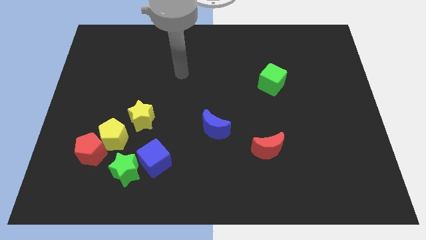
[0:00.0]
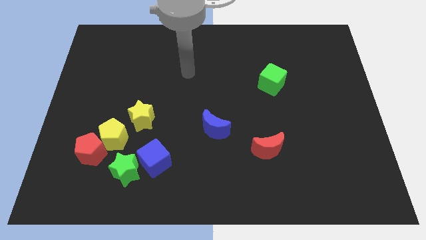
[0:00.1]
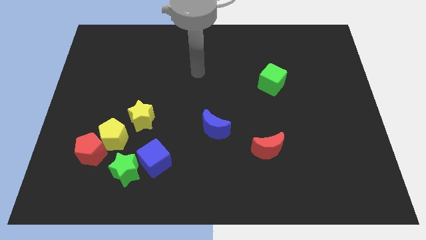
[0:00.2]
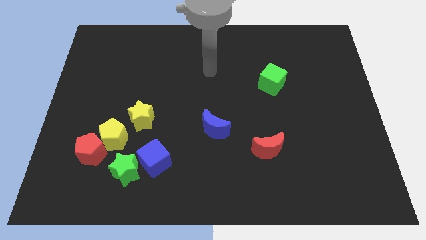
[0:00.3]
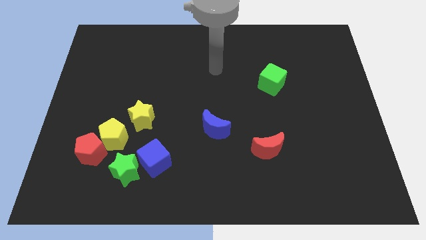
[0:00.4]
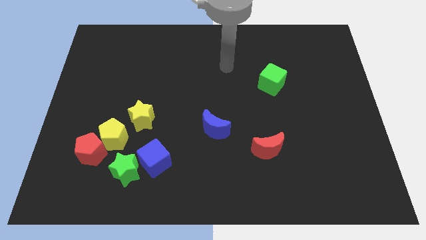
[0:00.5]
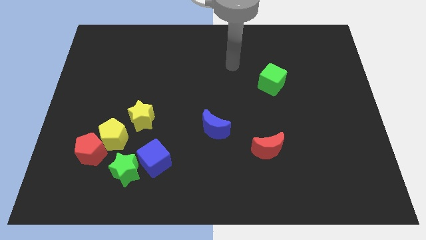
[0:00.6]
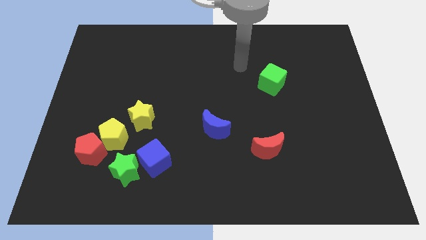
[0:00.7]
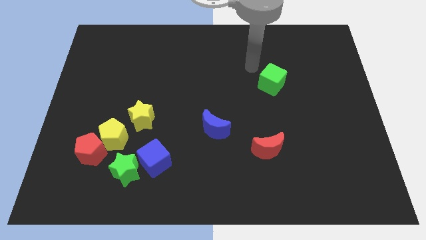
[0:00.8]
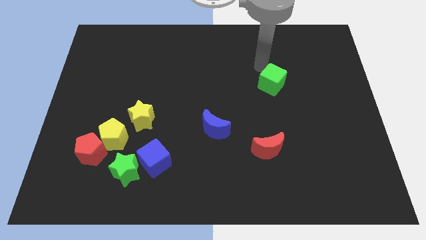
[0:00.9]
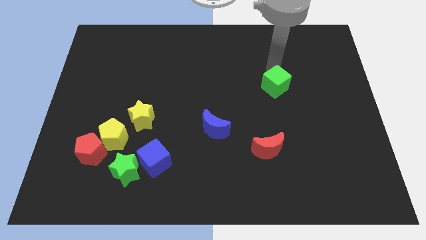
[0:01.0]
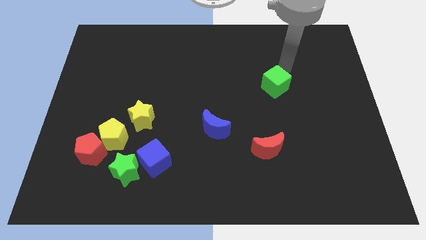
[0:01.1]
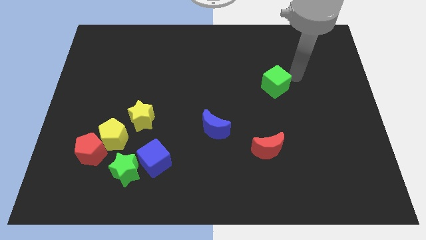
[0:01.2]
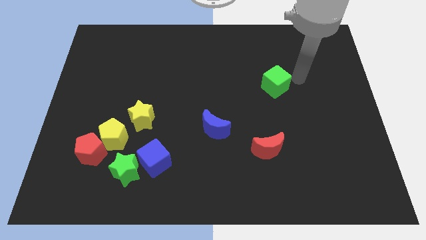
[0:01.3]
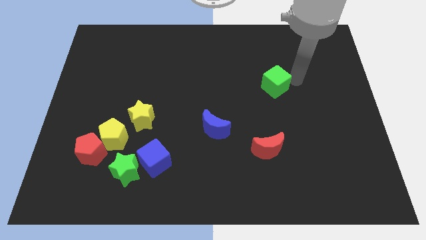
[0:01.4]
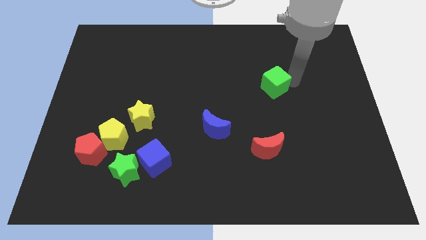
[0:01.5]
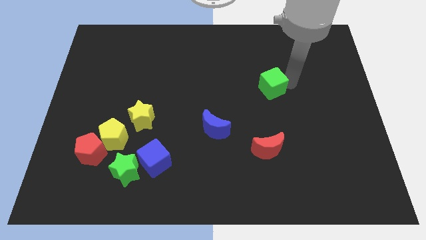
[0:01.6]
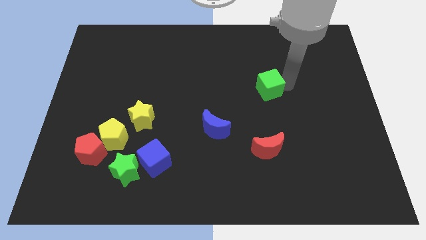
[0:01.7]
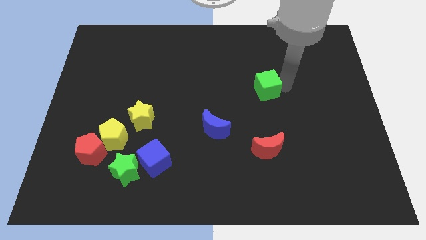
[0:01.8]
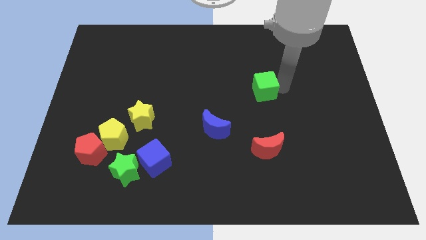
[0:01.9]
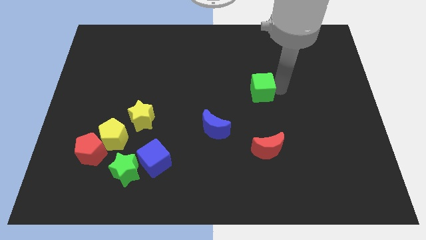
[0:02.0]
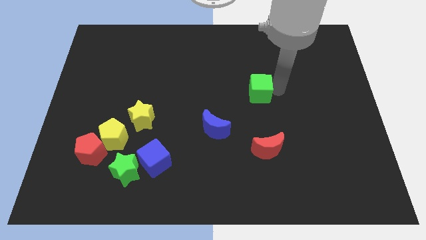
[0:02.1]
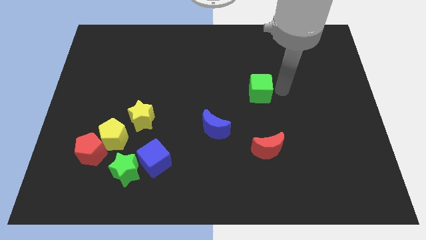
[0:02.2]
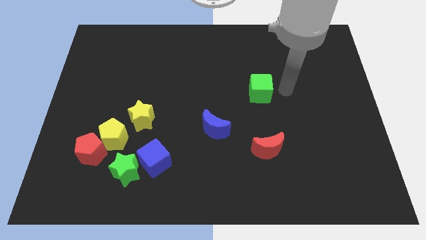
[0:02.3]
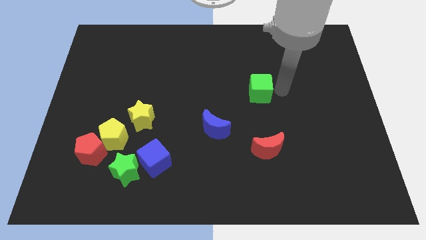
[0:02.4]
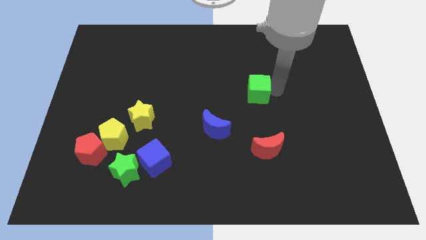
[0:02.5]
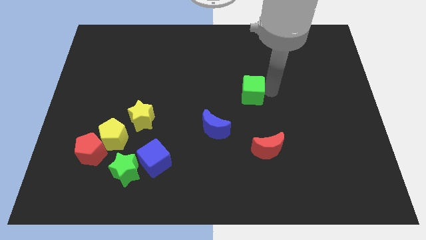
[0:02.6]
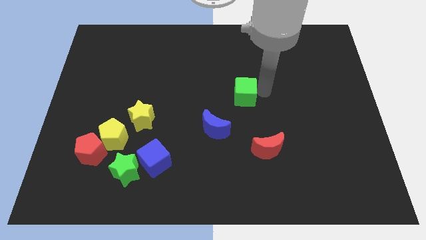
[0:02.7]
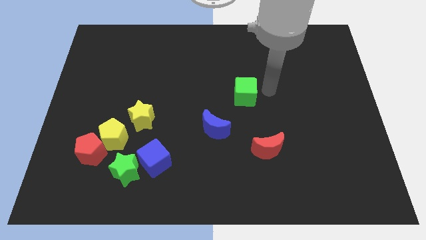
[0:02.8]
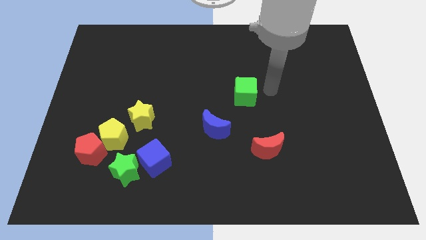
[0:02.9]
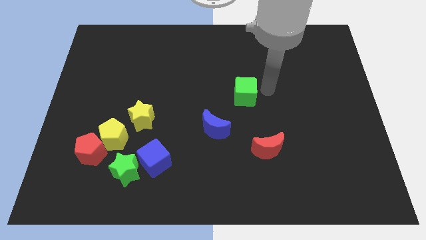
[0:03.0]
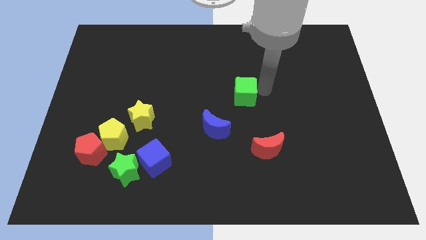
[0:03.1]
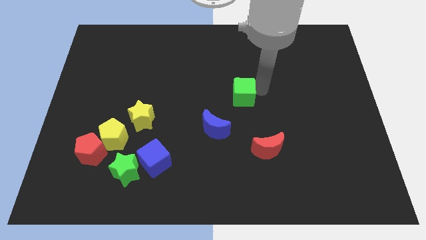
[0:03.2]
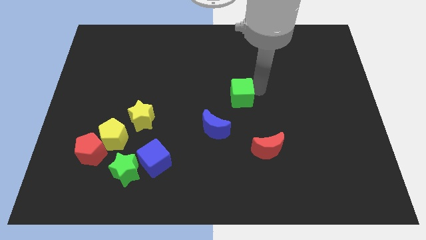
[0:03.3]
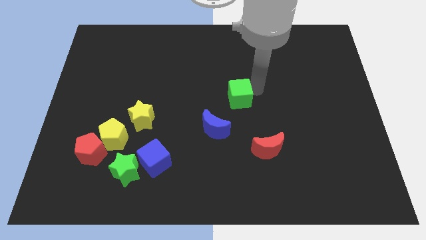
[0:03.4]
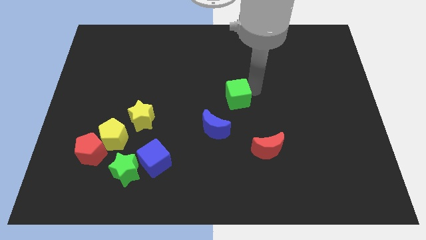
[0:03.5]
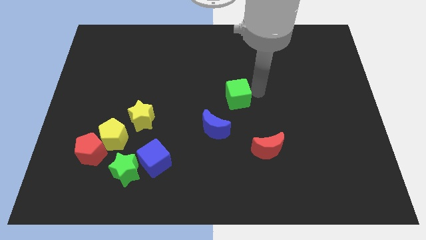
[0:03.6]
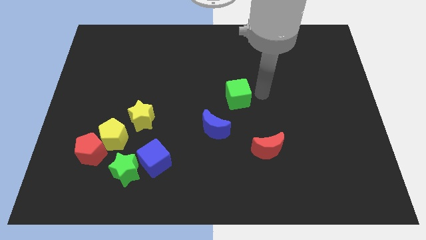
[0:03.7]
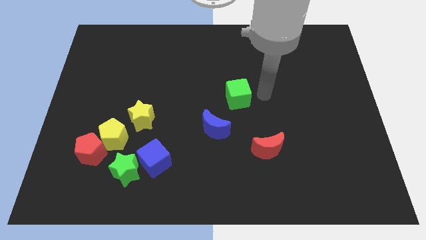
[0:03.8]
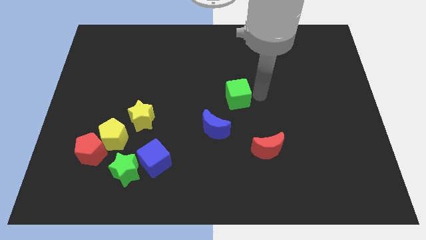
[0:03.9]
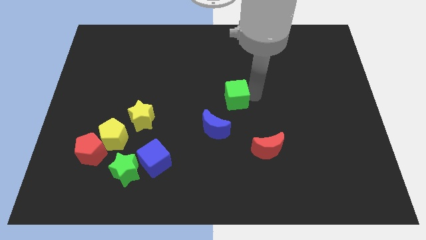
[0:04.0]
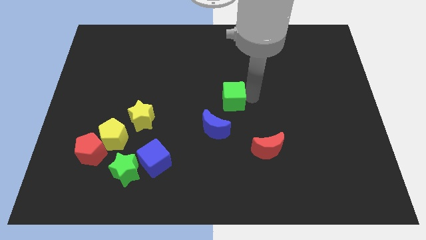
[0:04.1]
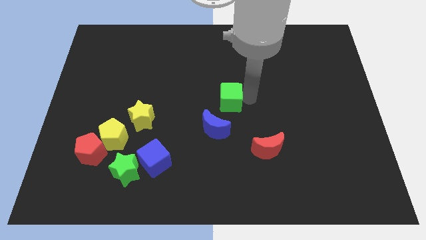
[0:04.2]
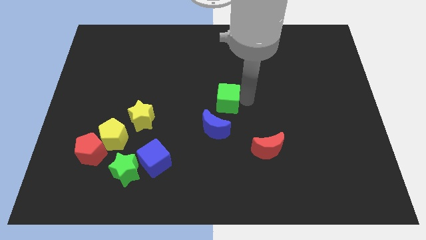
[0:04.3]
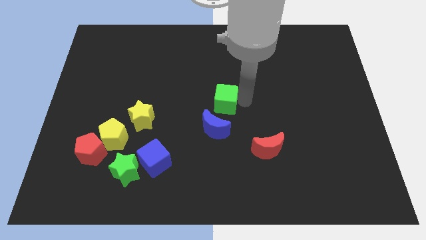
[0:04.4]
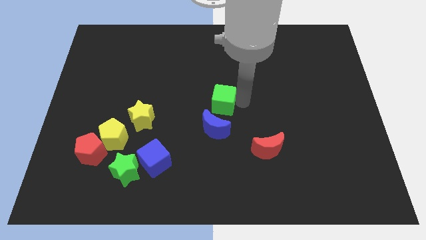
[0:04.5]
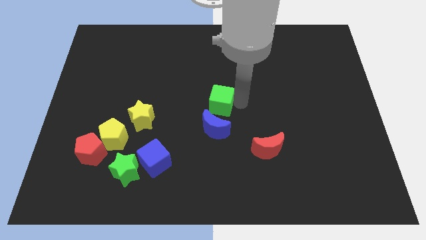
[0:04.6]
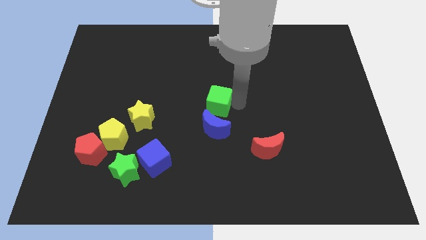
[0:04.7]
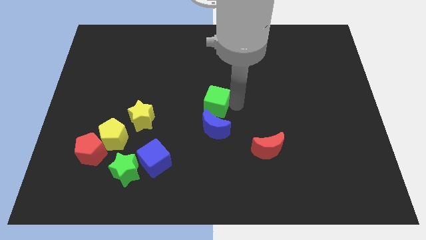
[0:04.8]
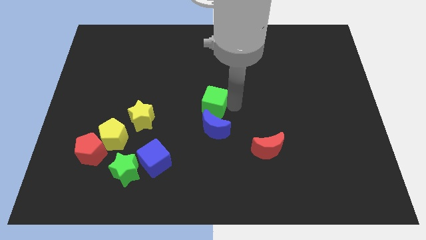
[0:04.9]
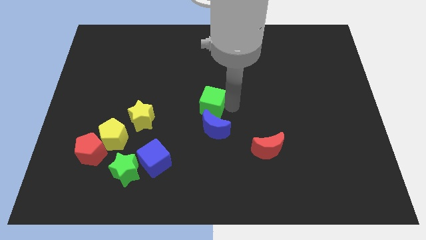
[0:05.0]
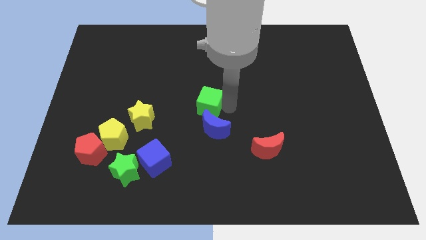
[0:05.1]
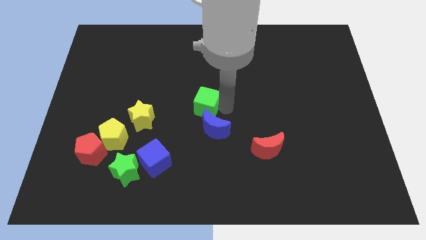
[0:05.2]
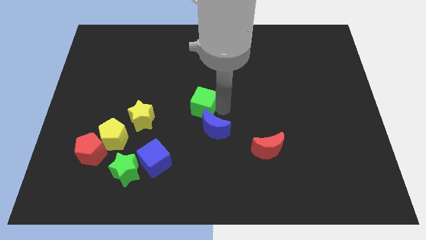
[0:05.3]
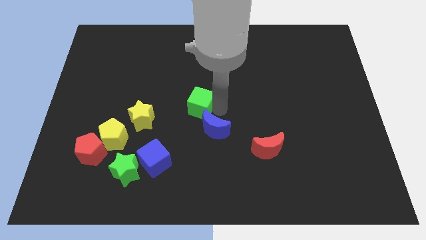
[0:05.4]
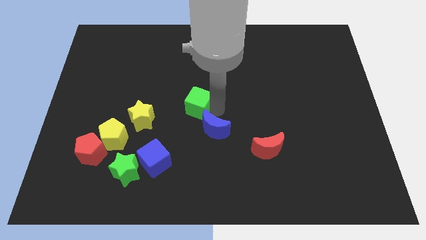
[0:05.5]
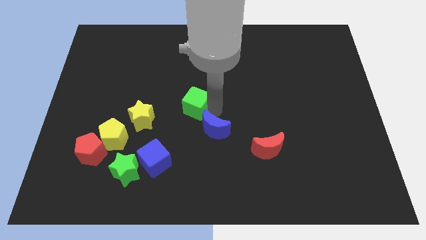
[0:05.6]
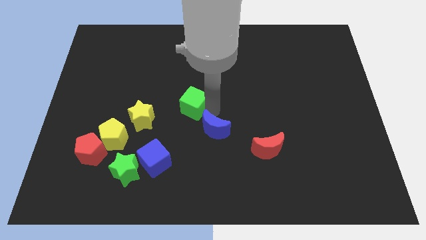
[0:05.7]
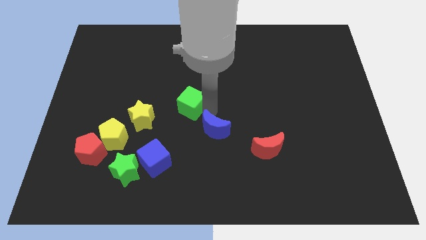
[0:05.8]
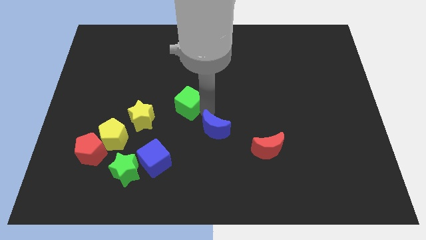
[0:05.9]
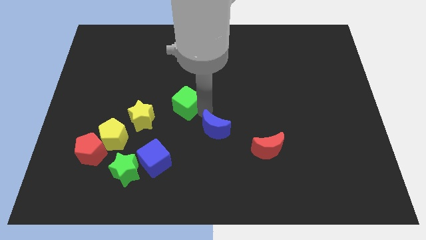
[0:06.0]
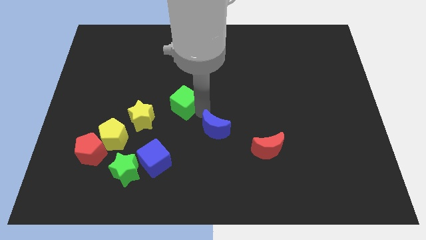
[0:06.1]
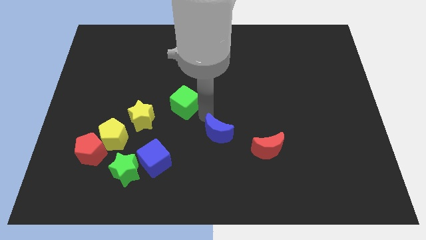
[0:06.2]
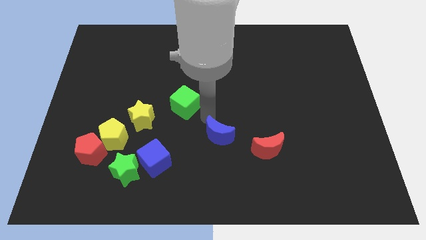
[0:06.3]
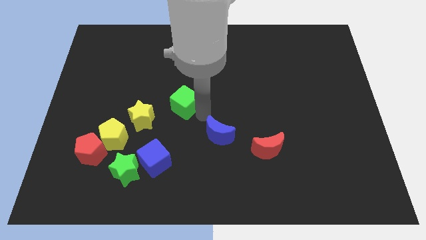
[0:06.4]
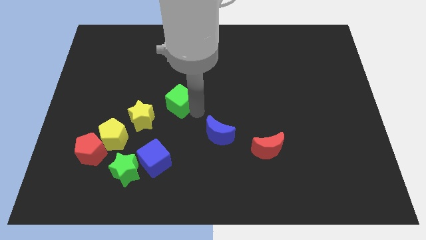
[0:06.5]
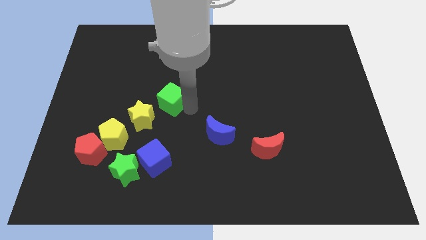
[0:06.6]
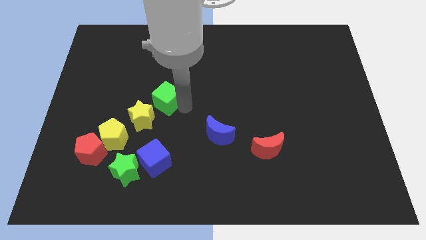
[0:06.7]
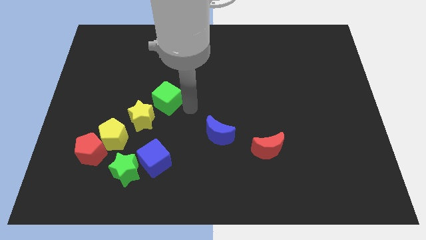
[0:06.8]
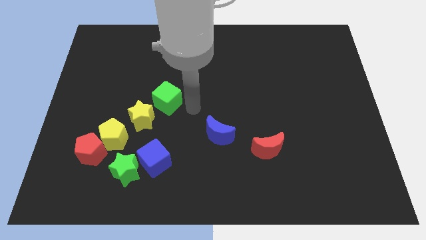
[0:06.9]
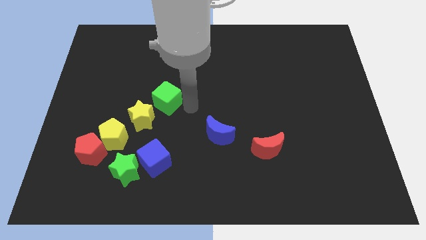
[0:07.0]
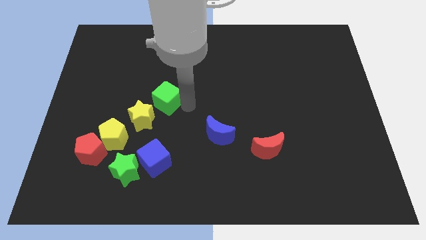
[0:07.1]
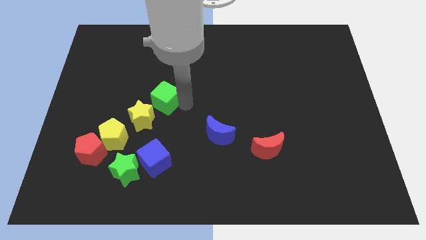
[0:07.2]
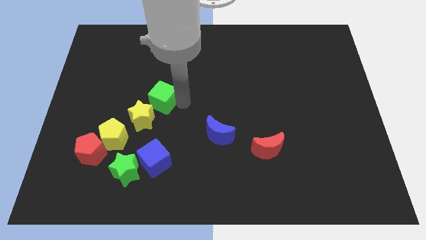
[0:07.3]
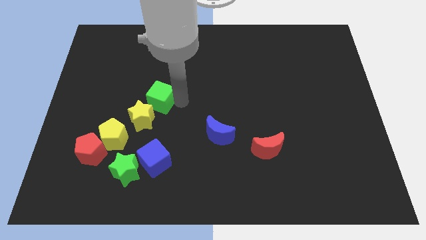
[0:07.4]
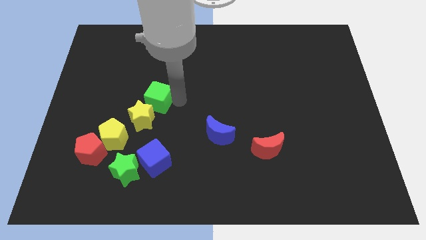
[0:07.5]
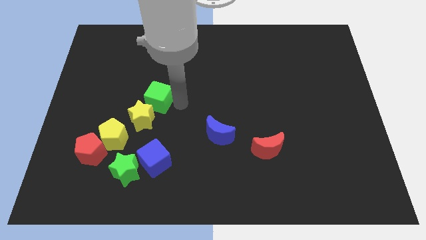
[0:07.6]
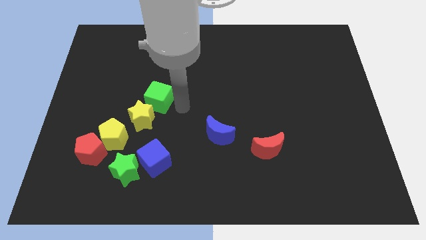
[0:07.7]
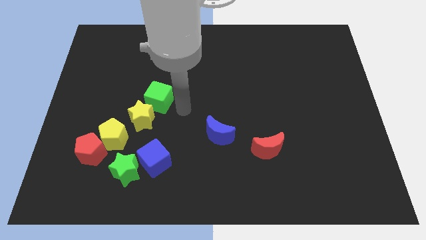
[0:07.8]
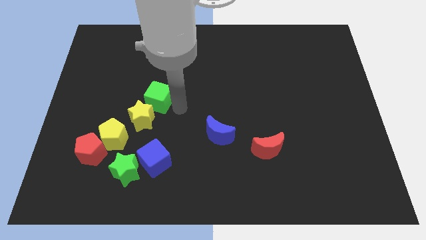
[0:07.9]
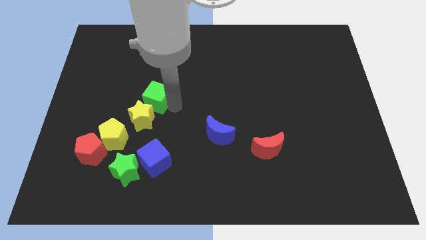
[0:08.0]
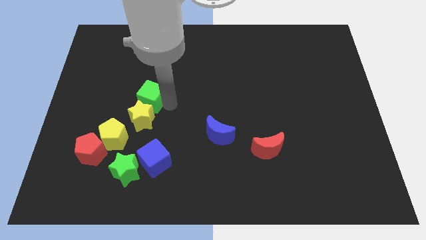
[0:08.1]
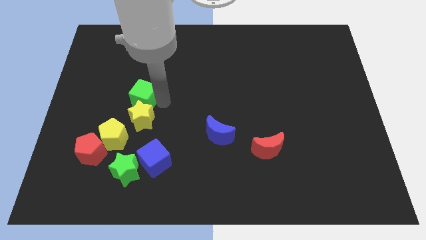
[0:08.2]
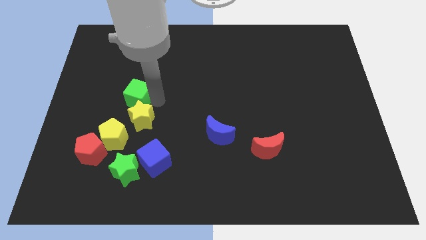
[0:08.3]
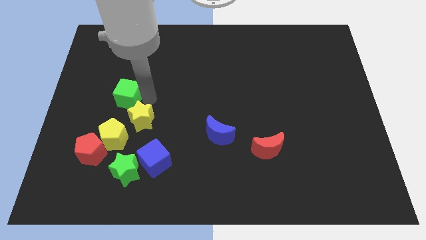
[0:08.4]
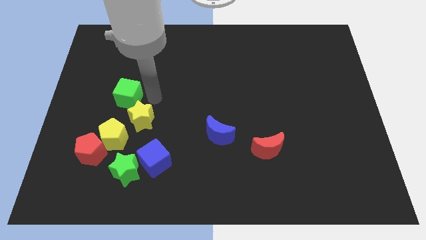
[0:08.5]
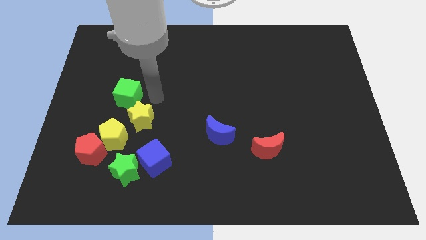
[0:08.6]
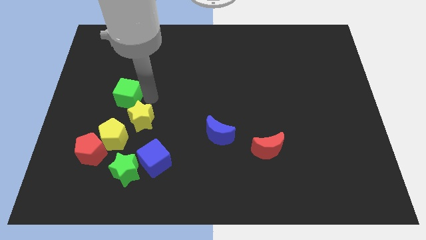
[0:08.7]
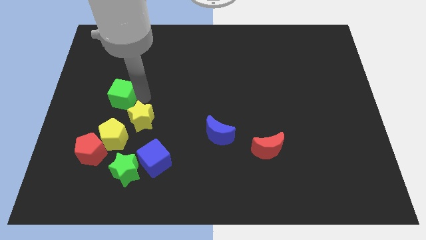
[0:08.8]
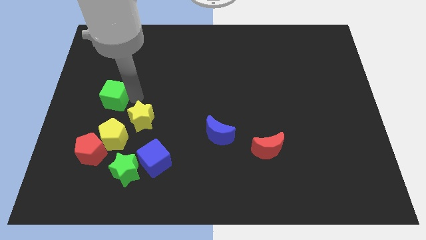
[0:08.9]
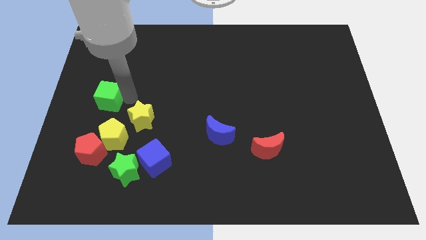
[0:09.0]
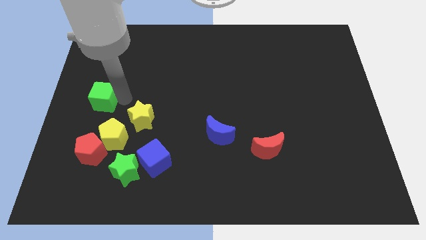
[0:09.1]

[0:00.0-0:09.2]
slide the green cube to the left side of the board
